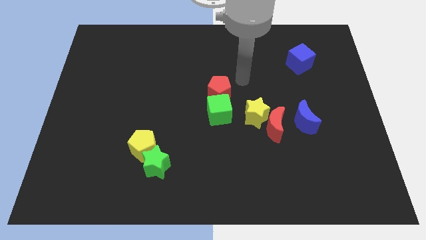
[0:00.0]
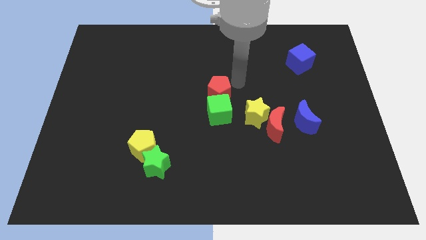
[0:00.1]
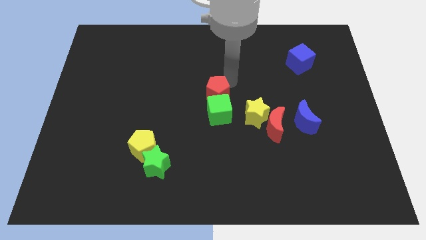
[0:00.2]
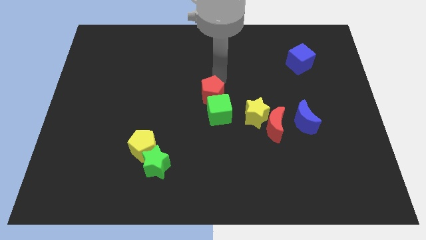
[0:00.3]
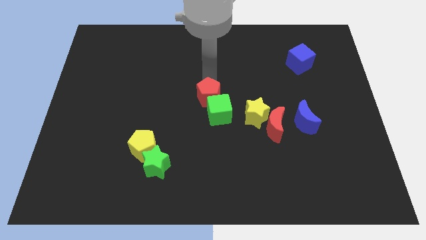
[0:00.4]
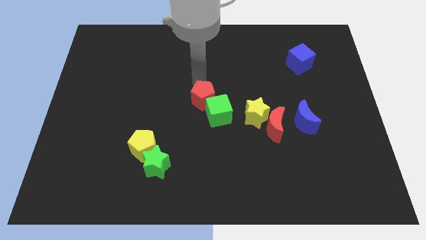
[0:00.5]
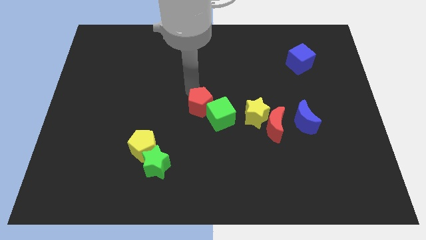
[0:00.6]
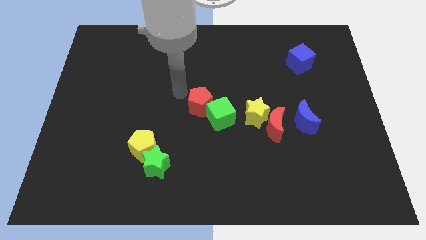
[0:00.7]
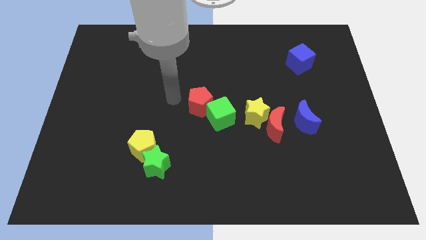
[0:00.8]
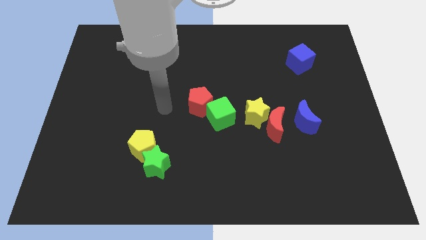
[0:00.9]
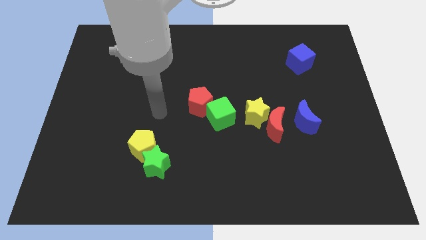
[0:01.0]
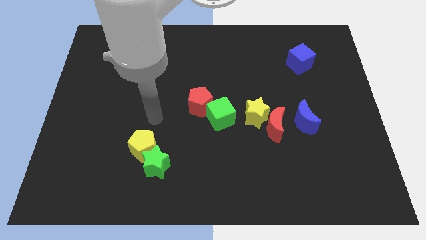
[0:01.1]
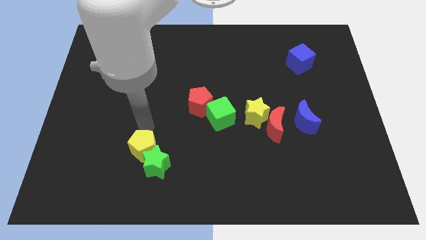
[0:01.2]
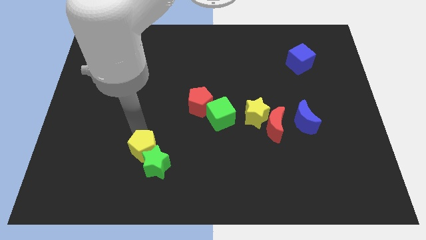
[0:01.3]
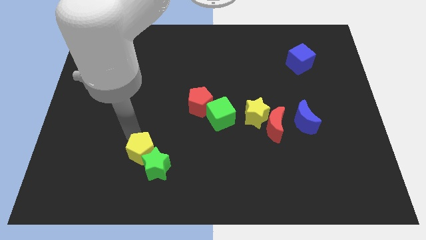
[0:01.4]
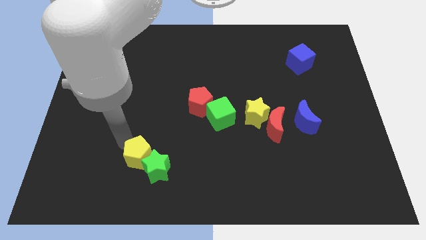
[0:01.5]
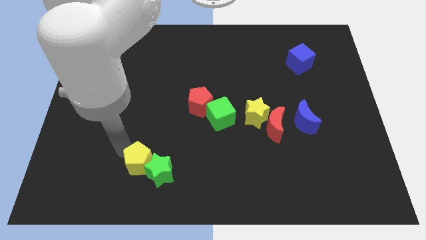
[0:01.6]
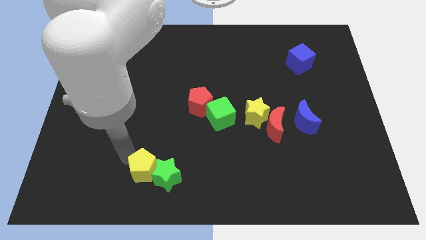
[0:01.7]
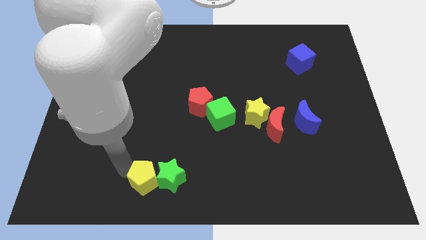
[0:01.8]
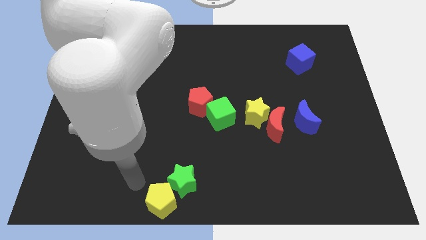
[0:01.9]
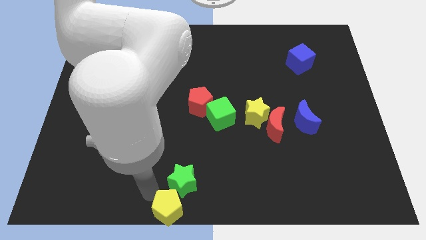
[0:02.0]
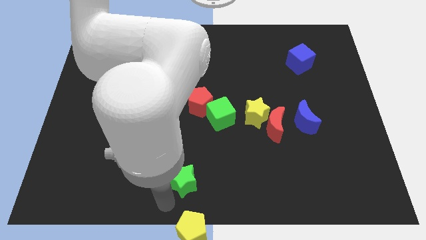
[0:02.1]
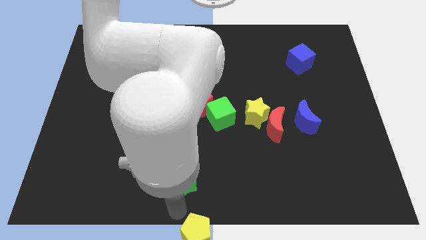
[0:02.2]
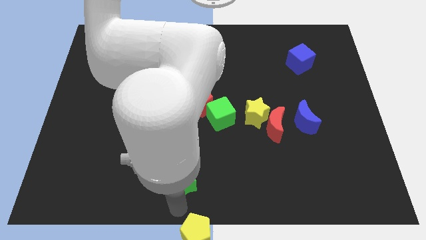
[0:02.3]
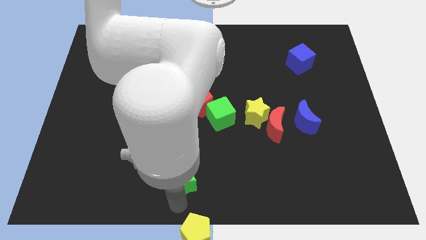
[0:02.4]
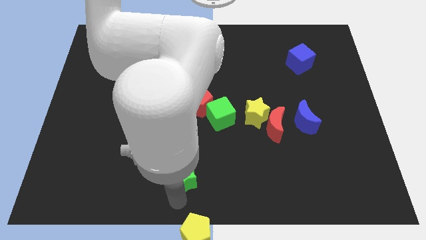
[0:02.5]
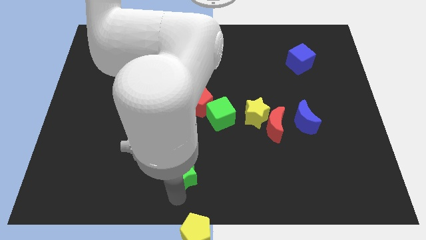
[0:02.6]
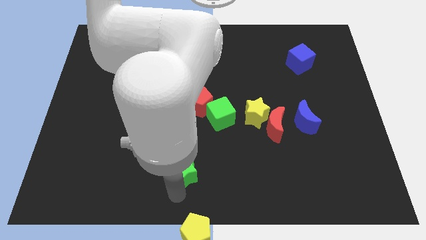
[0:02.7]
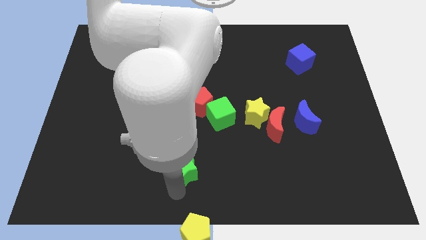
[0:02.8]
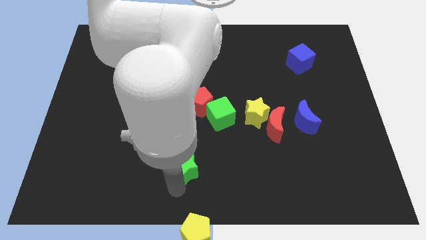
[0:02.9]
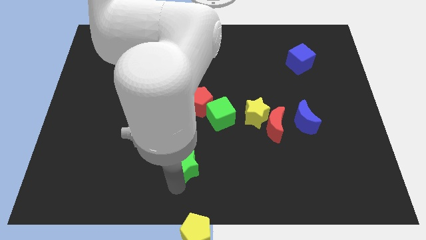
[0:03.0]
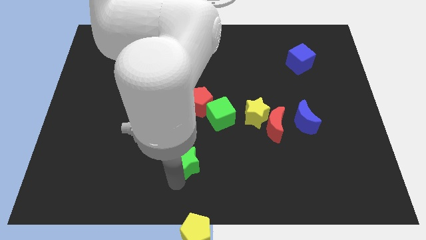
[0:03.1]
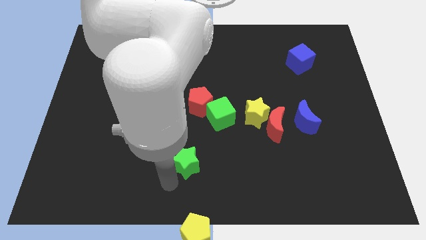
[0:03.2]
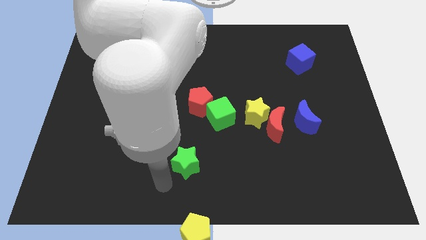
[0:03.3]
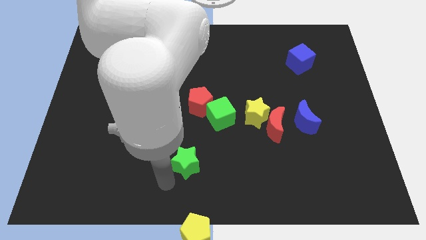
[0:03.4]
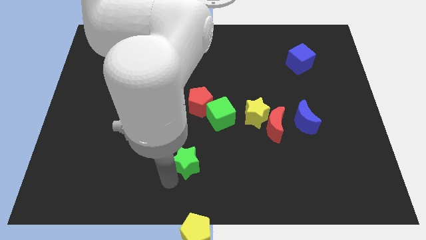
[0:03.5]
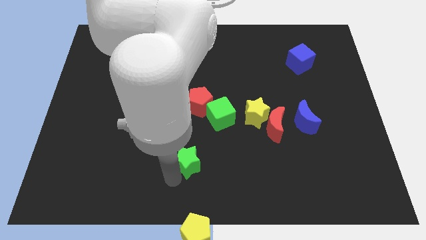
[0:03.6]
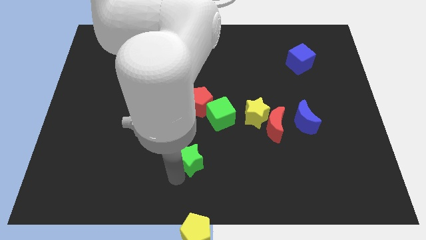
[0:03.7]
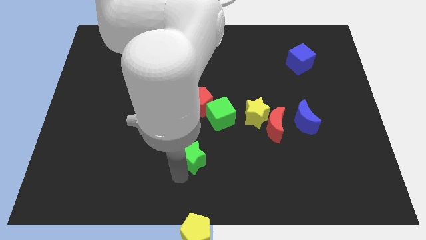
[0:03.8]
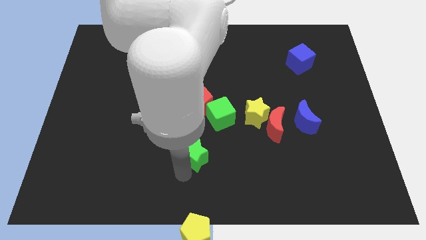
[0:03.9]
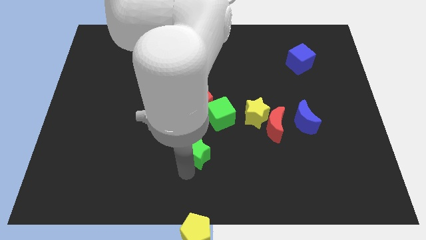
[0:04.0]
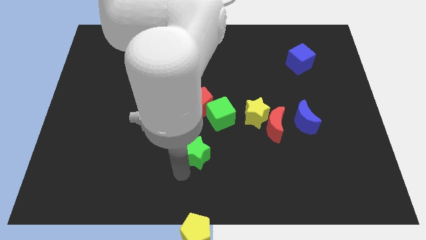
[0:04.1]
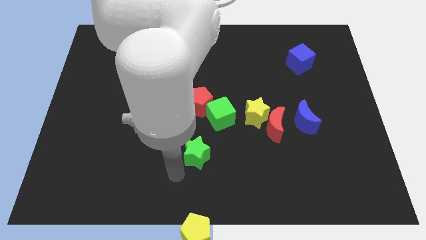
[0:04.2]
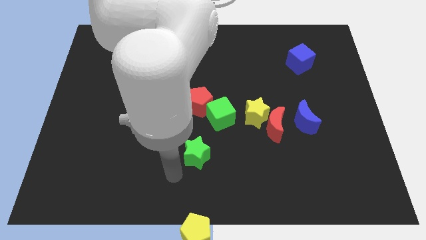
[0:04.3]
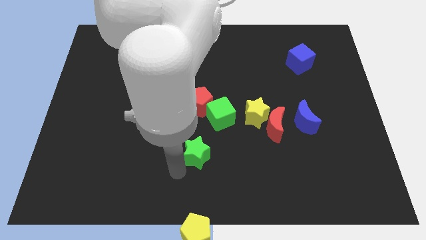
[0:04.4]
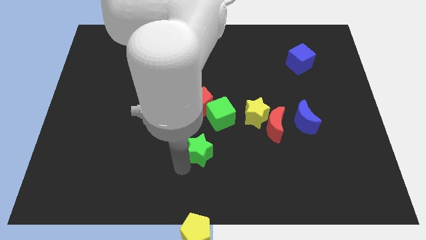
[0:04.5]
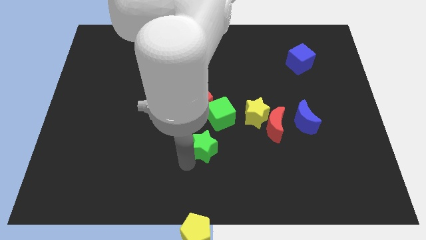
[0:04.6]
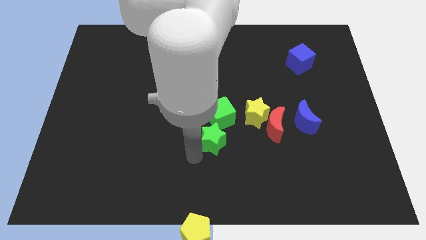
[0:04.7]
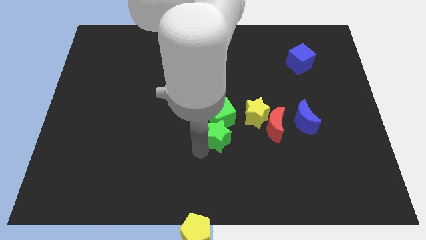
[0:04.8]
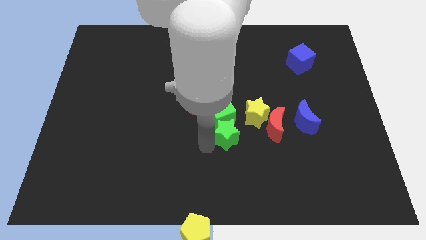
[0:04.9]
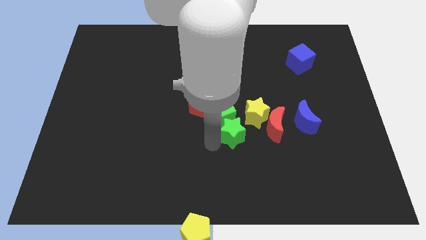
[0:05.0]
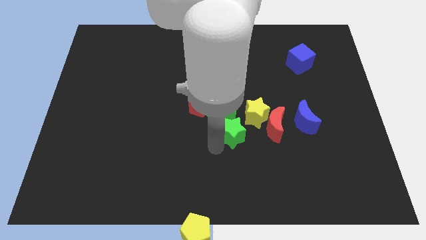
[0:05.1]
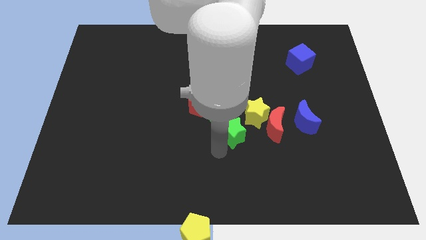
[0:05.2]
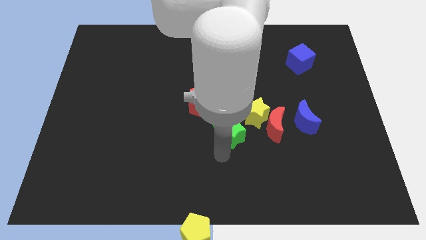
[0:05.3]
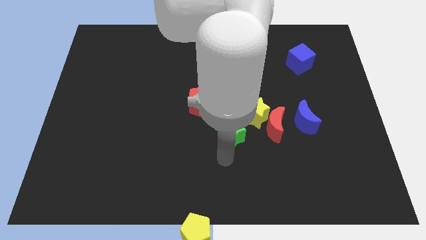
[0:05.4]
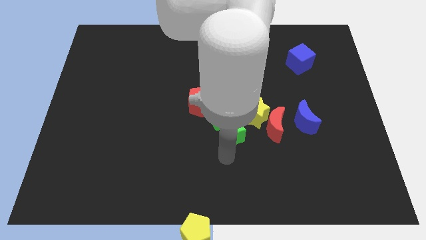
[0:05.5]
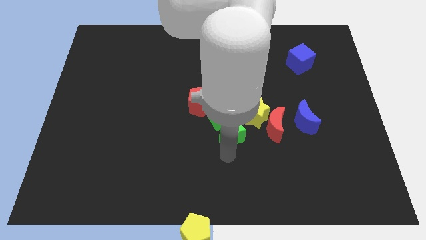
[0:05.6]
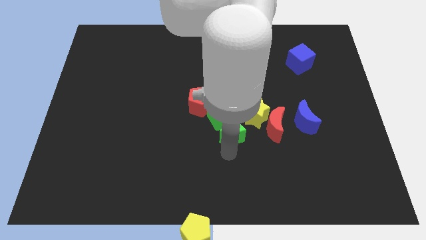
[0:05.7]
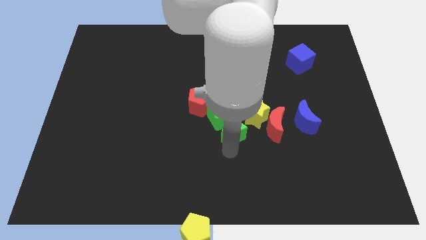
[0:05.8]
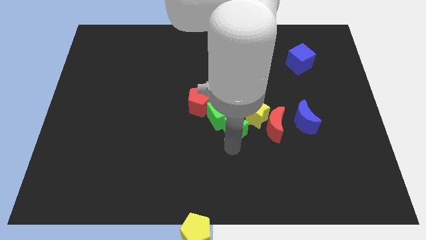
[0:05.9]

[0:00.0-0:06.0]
slide the green star to the right side of the green cube
